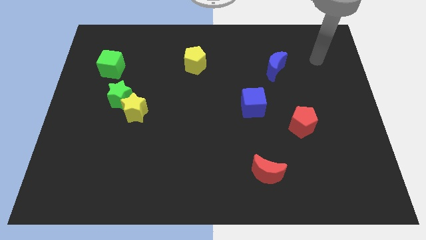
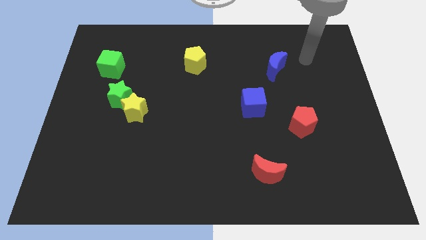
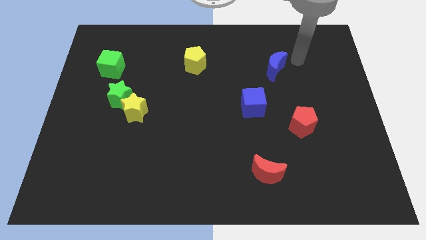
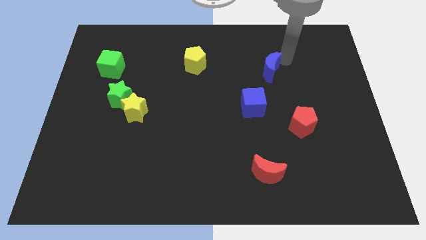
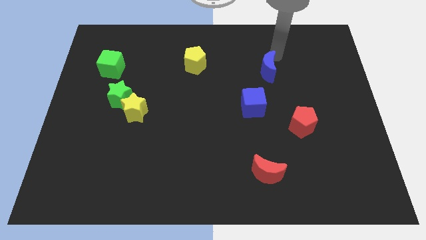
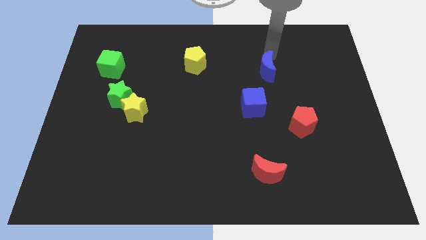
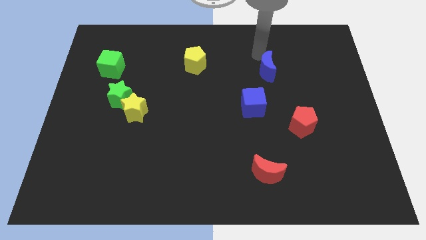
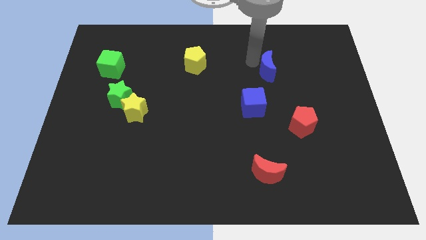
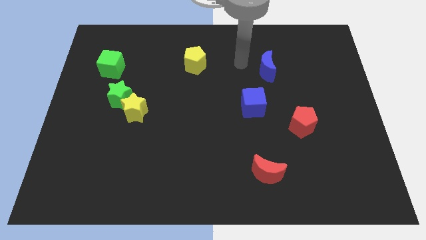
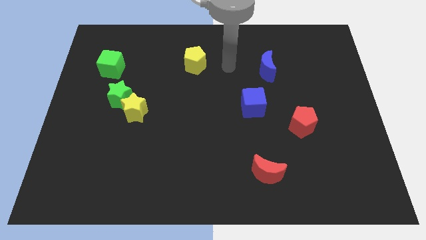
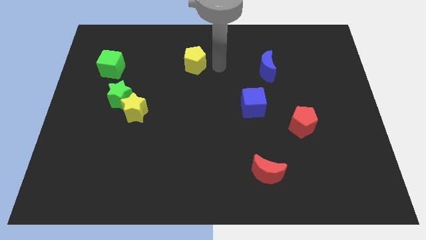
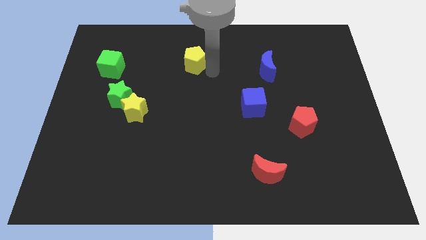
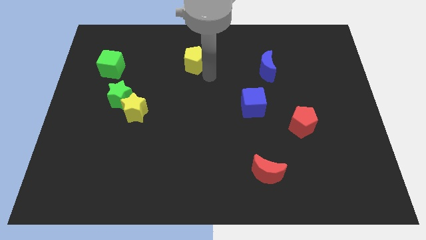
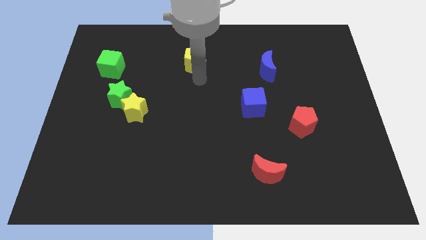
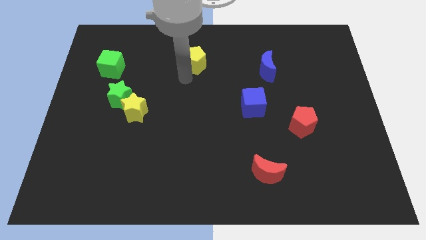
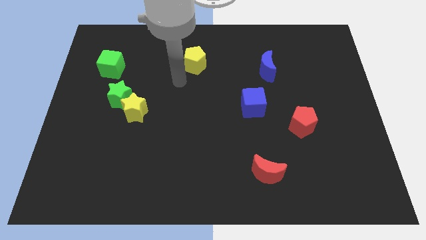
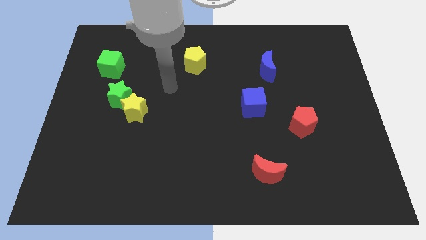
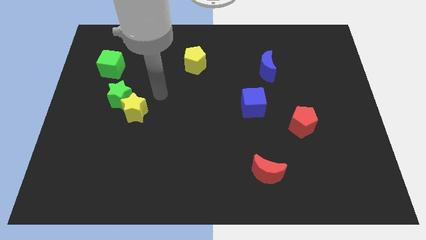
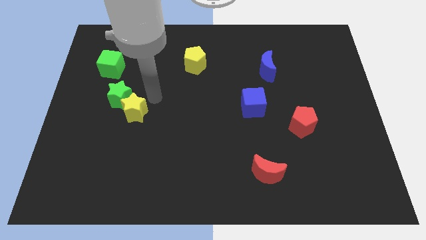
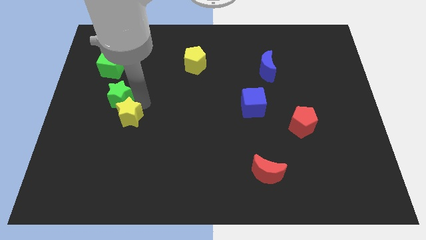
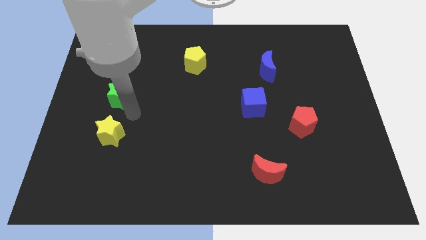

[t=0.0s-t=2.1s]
separate the green star from the yellow star

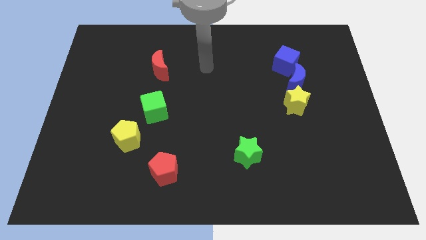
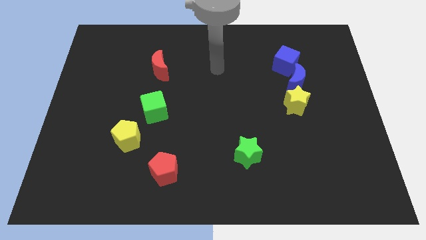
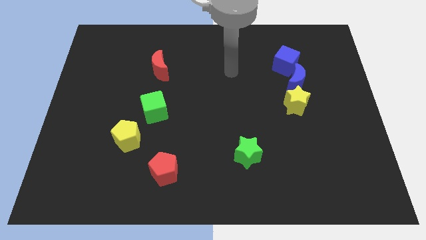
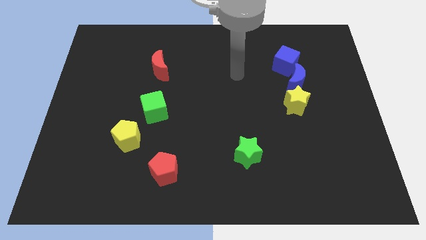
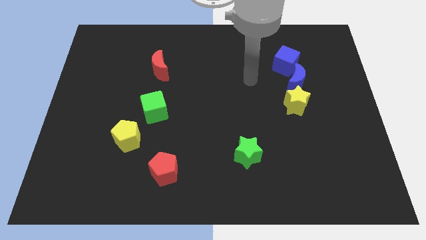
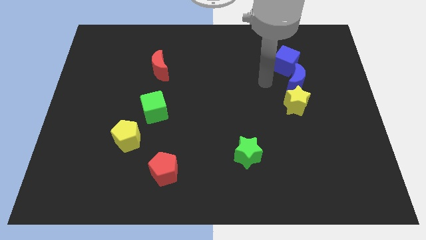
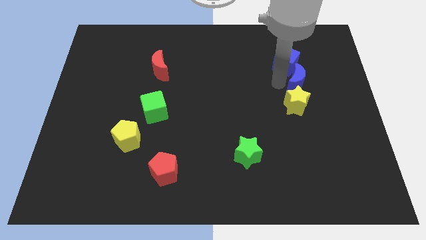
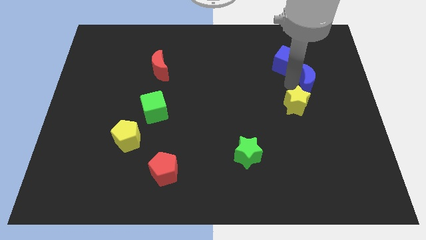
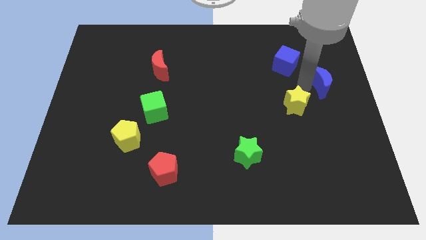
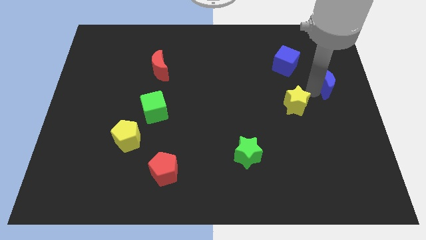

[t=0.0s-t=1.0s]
move the yellow star away from the blue moon

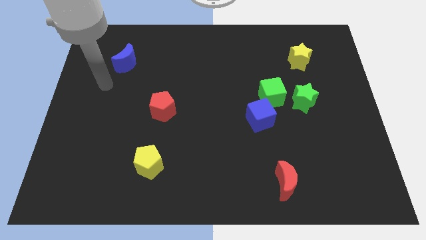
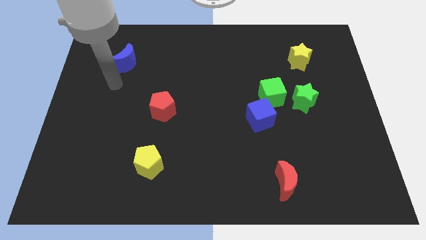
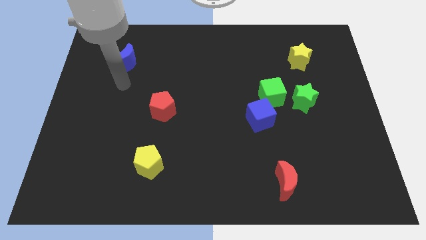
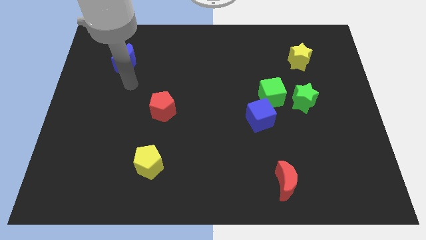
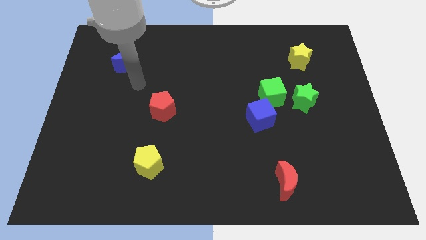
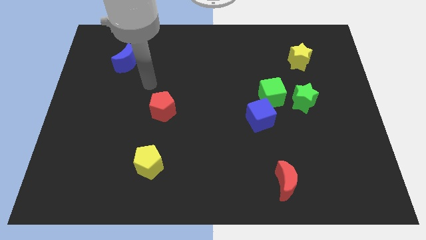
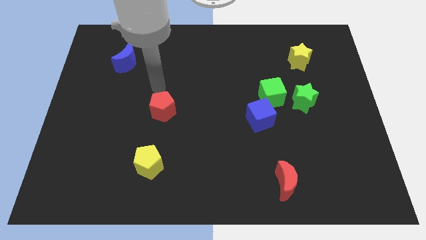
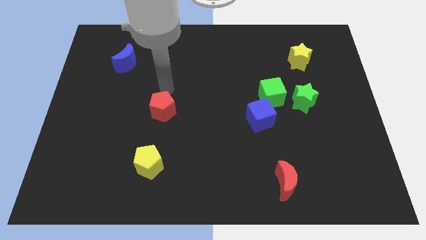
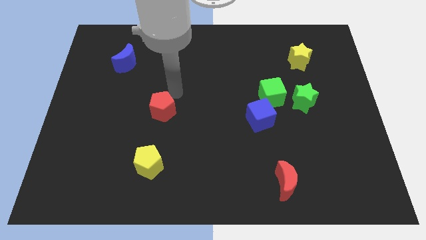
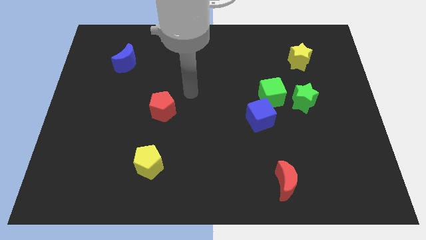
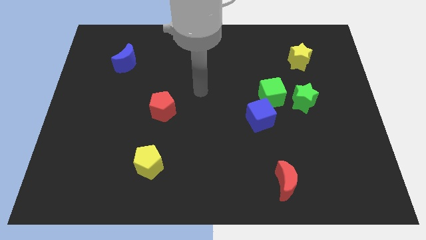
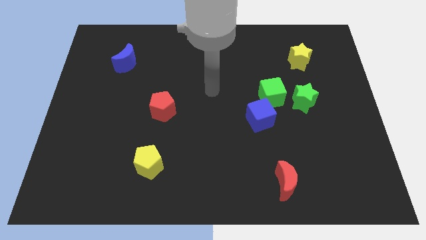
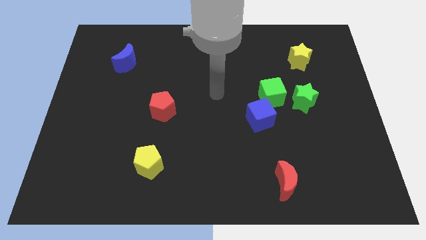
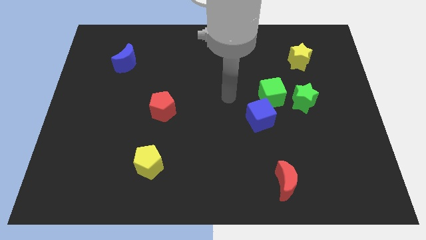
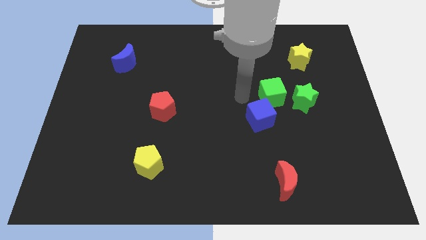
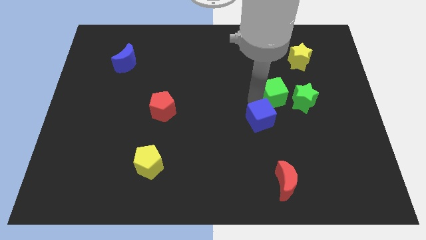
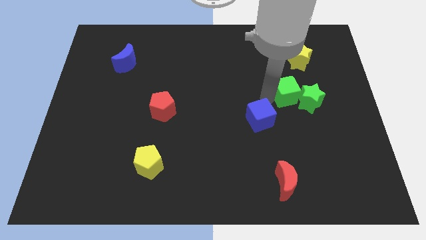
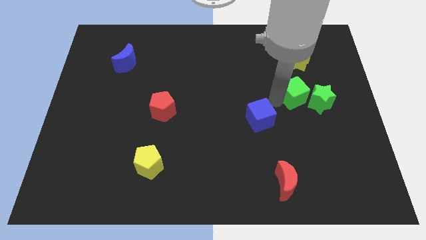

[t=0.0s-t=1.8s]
move the blue cube away from the green cube

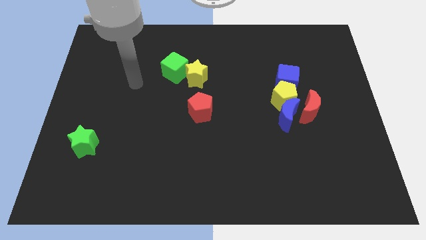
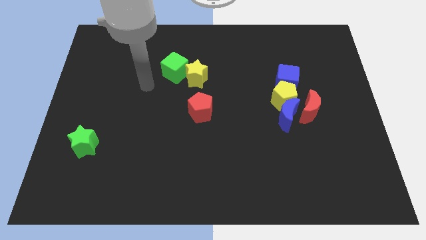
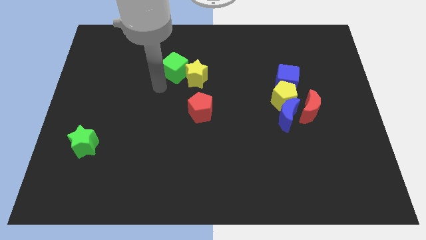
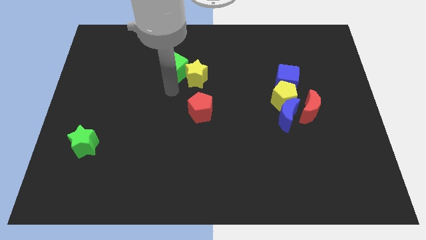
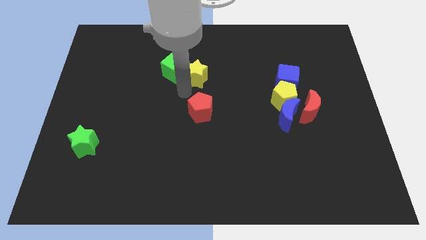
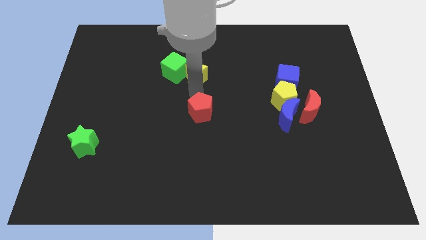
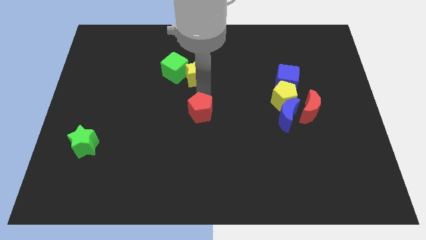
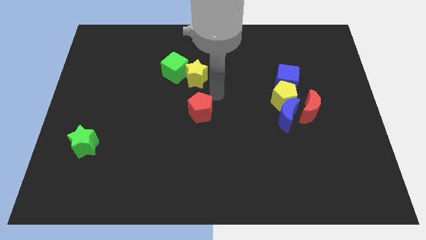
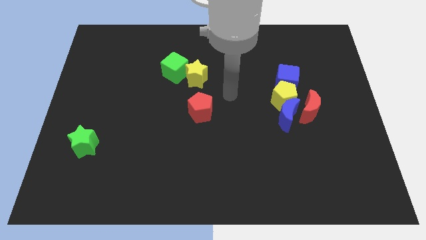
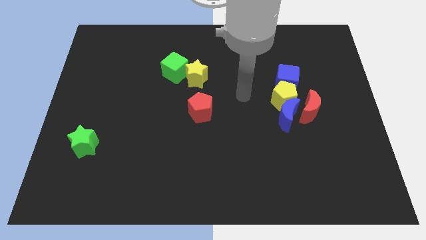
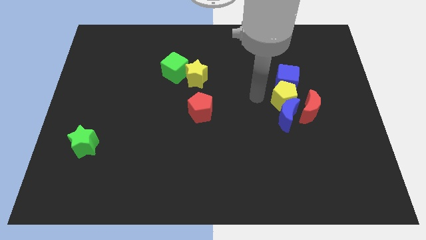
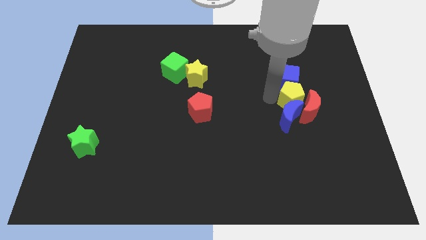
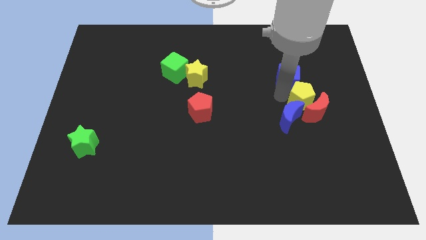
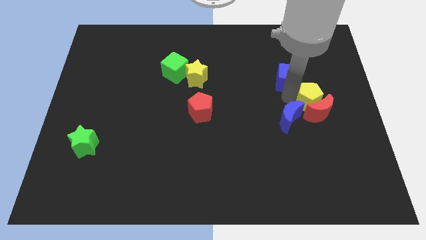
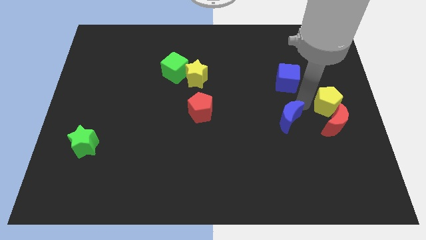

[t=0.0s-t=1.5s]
pull the blue moon apart from the yellow pentagon and red moon

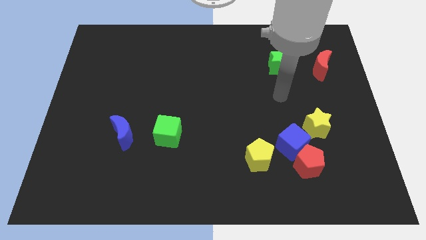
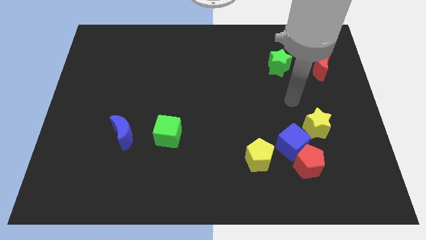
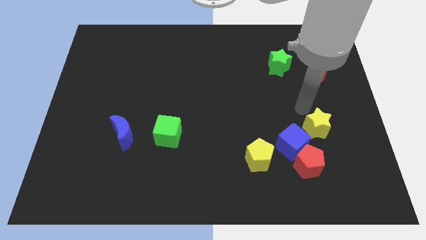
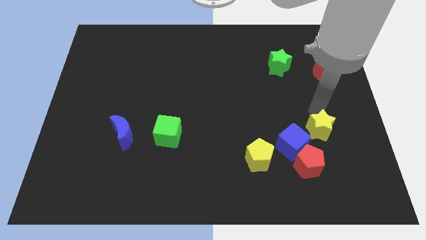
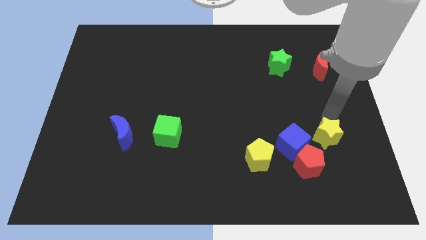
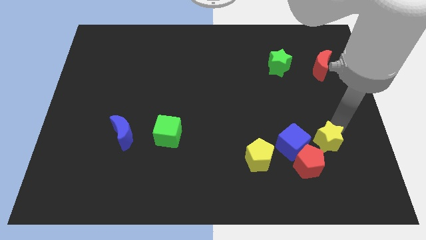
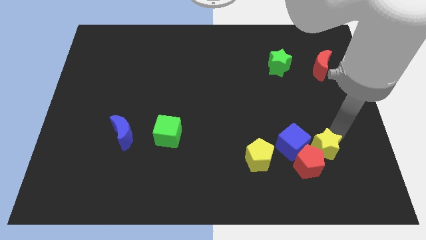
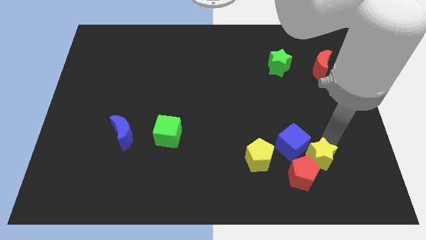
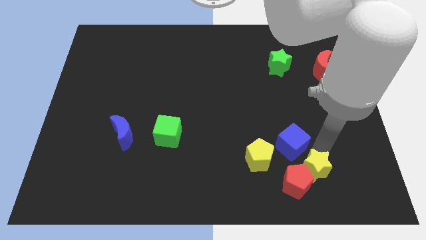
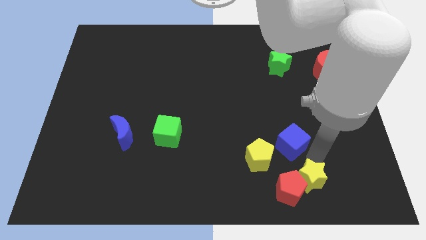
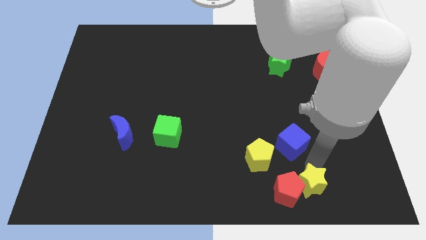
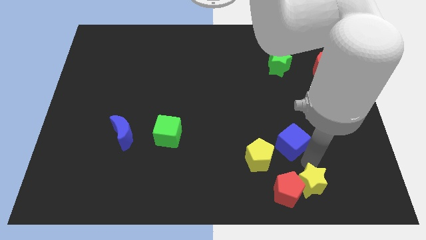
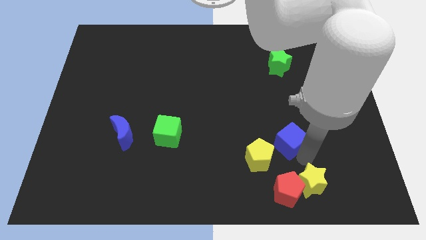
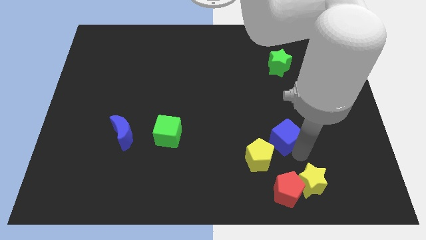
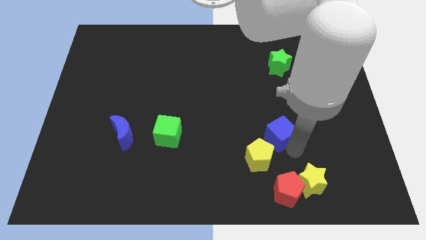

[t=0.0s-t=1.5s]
separate the blue cube from the group of blocks

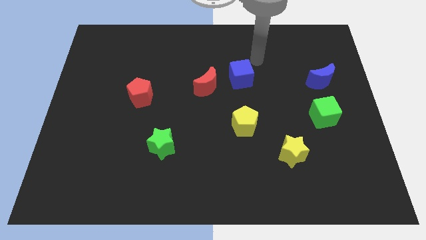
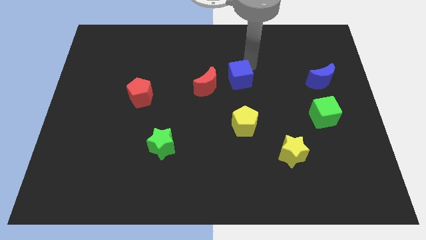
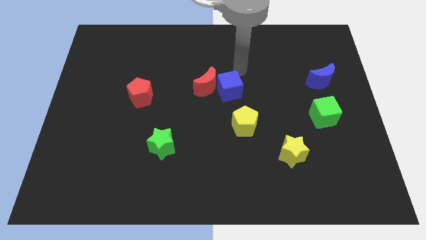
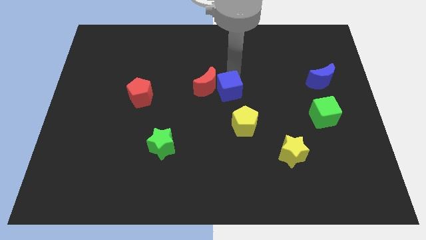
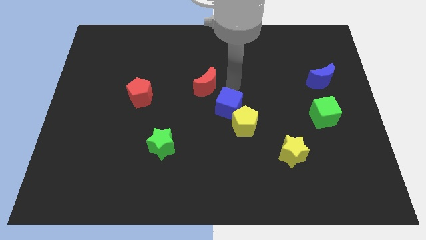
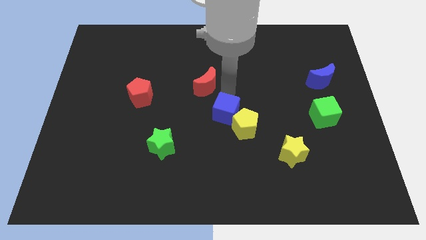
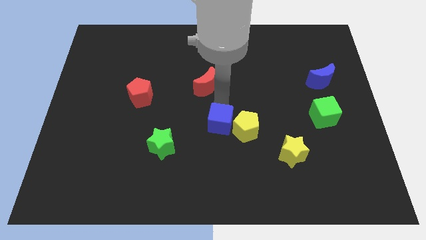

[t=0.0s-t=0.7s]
move the red moon away from the blue cube

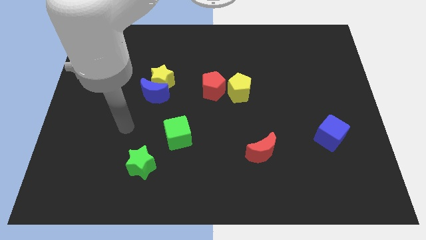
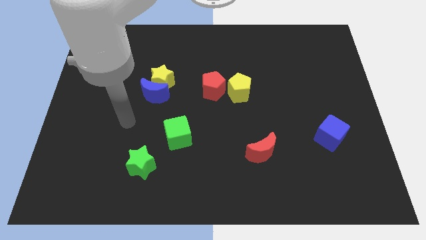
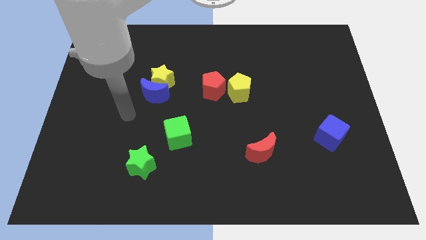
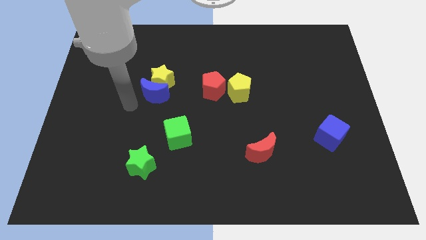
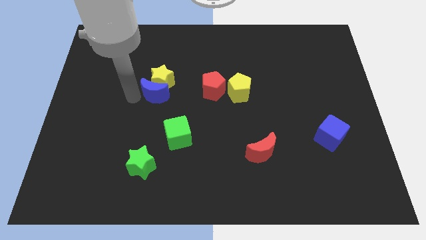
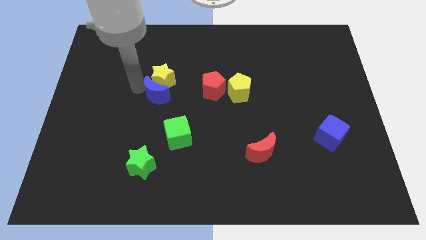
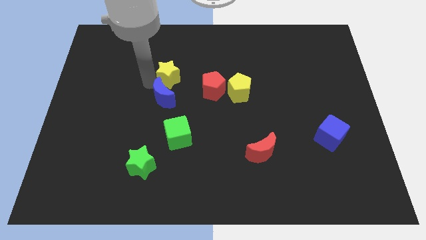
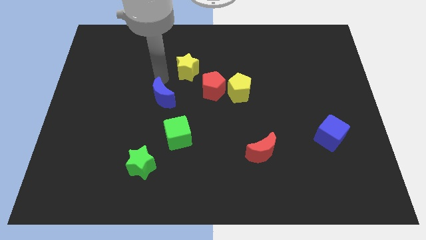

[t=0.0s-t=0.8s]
pull the blue moon apart from the yellow star

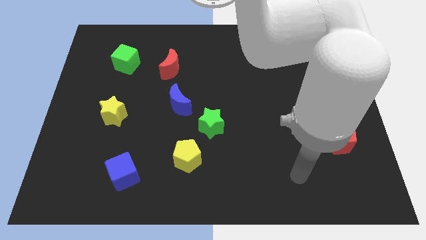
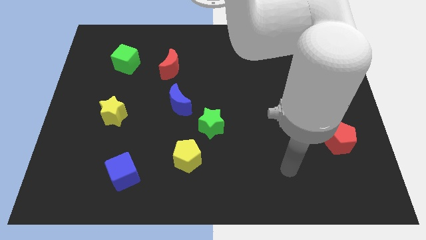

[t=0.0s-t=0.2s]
pull the yellow pentagon apart from the green star
